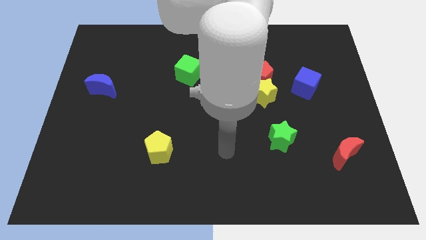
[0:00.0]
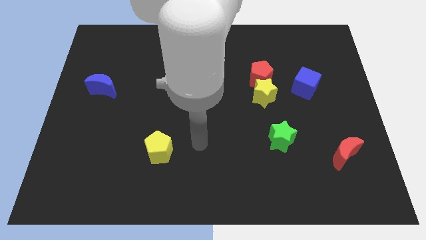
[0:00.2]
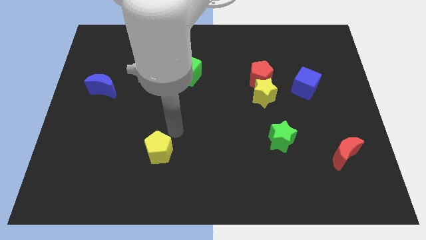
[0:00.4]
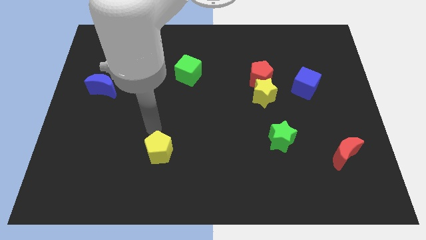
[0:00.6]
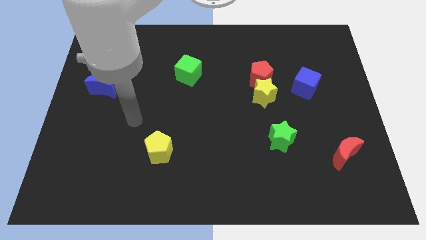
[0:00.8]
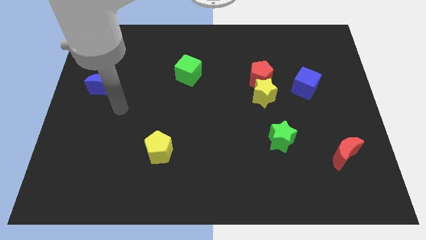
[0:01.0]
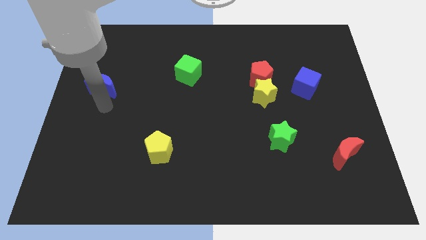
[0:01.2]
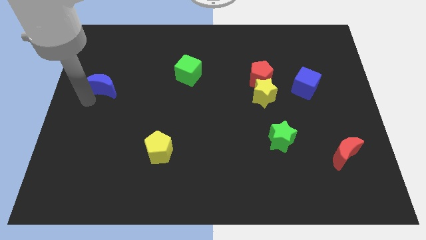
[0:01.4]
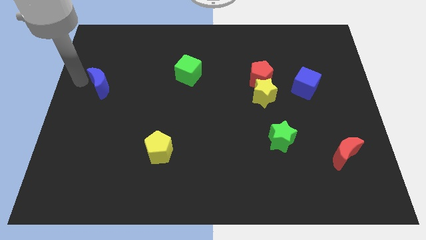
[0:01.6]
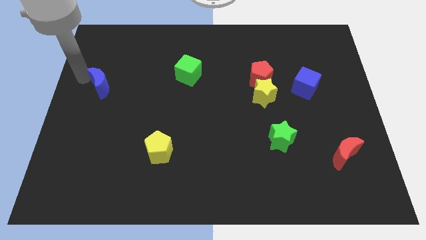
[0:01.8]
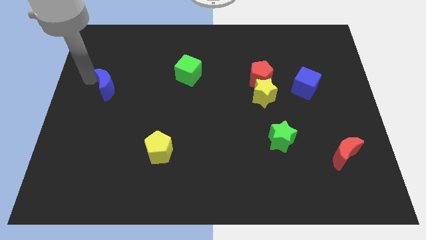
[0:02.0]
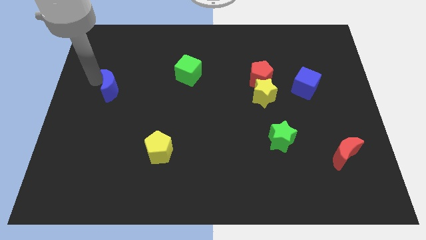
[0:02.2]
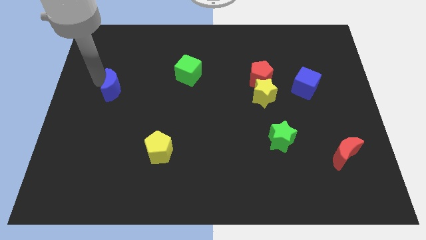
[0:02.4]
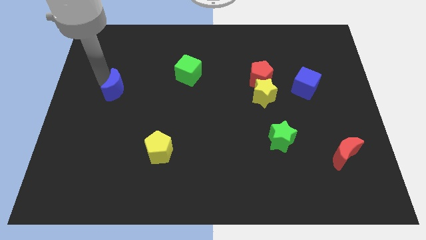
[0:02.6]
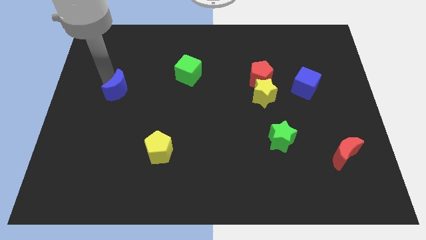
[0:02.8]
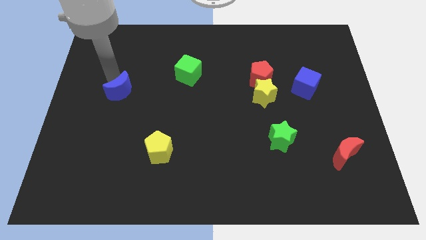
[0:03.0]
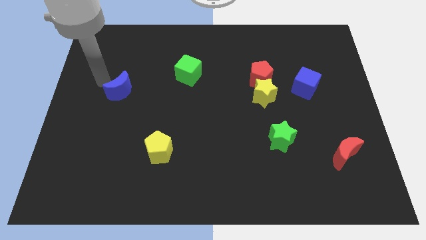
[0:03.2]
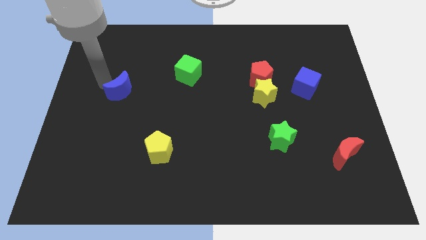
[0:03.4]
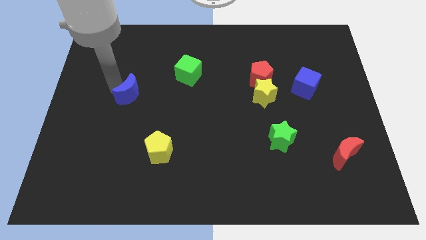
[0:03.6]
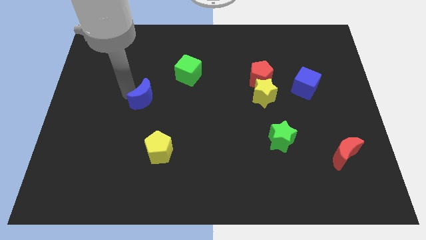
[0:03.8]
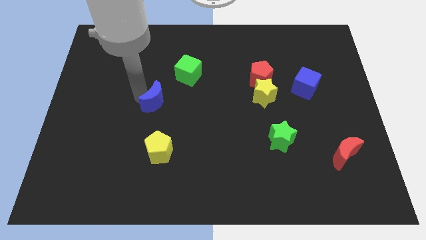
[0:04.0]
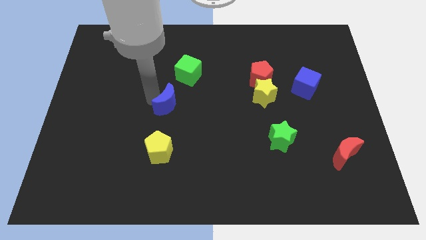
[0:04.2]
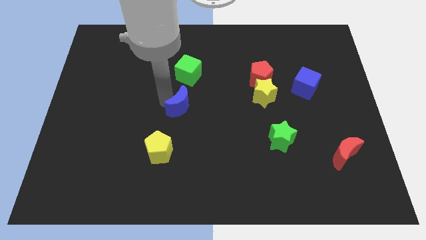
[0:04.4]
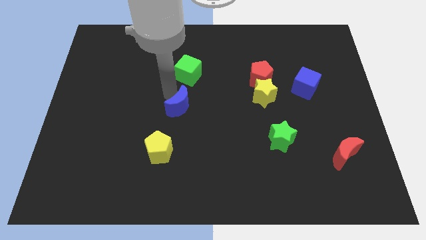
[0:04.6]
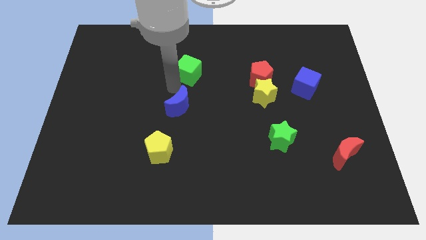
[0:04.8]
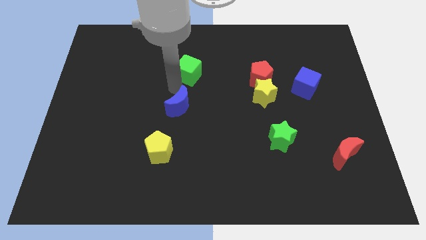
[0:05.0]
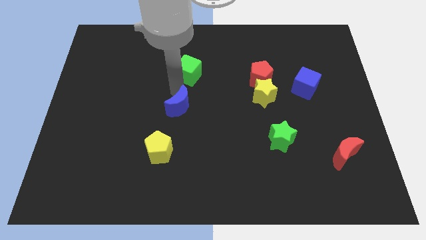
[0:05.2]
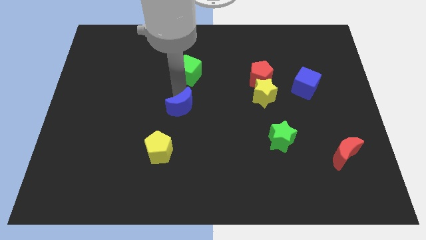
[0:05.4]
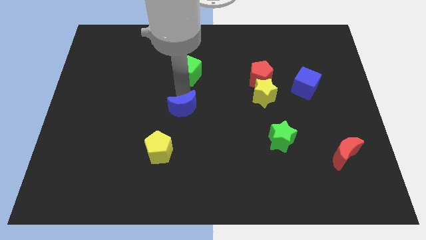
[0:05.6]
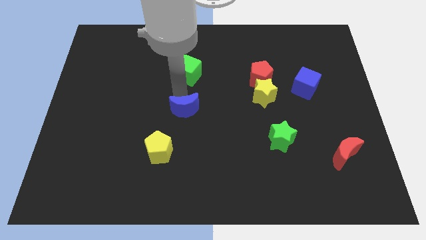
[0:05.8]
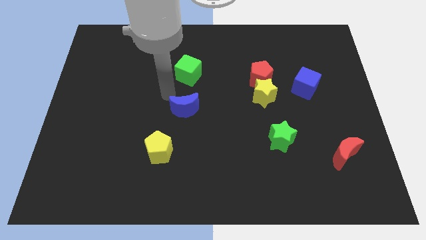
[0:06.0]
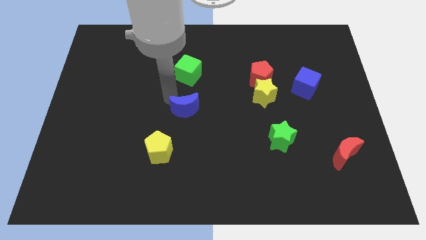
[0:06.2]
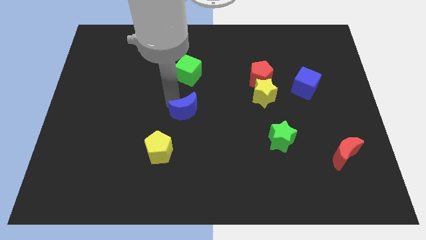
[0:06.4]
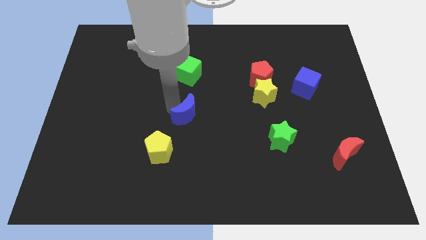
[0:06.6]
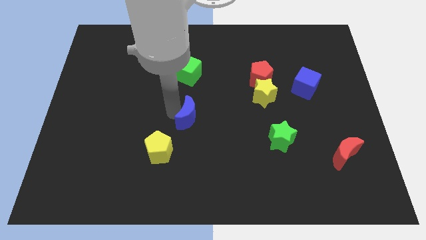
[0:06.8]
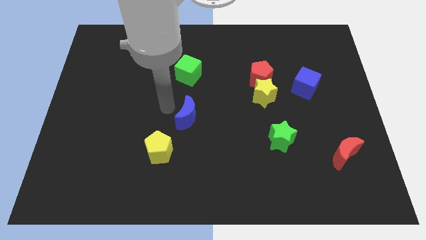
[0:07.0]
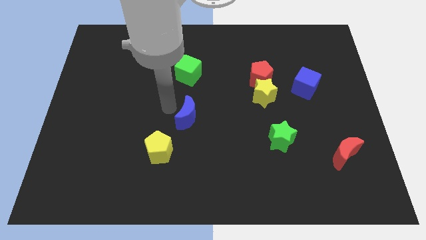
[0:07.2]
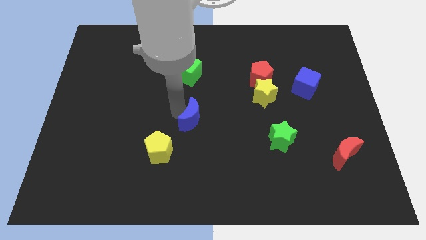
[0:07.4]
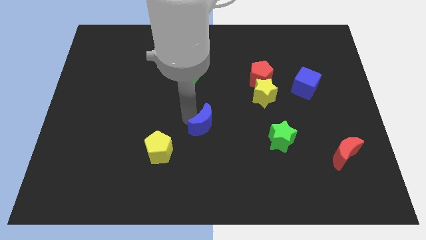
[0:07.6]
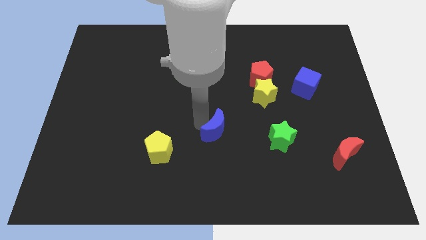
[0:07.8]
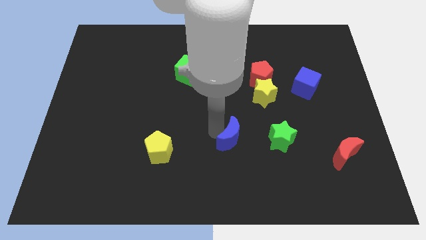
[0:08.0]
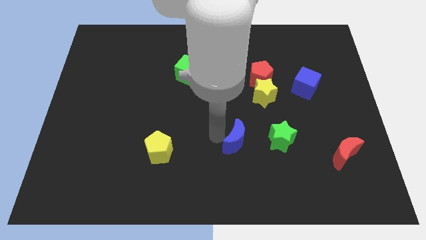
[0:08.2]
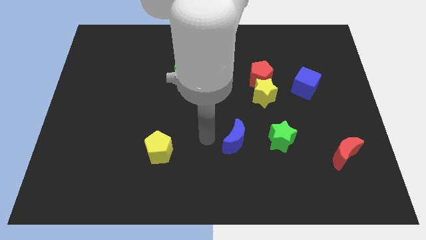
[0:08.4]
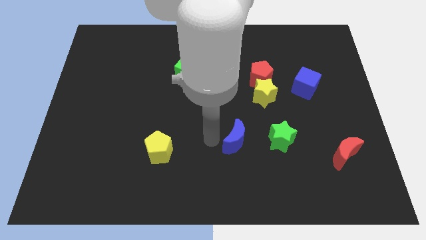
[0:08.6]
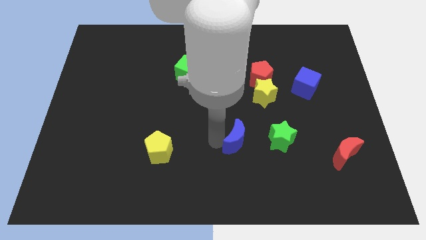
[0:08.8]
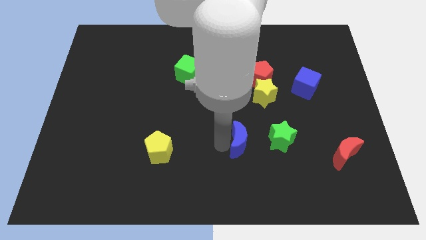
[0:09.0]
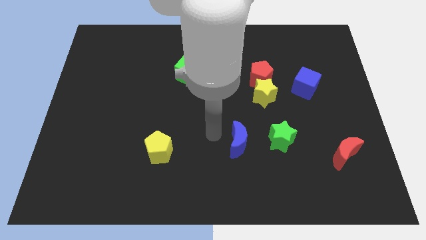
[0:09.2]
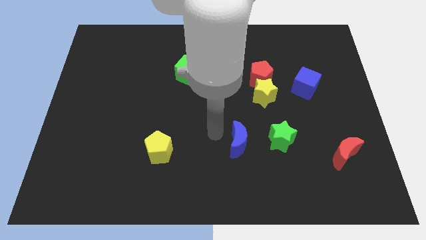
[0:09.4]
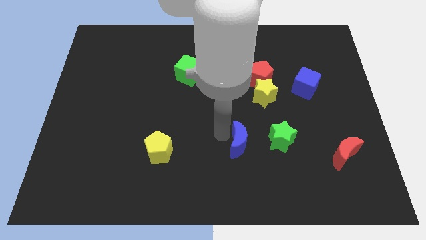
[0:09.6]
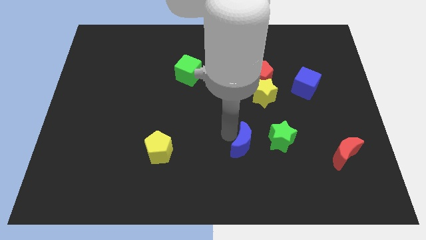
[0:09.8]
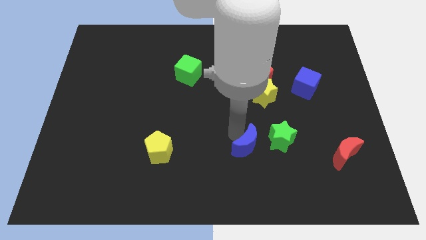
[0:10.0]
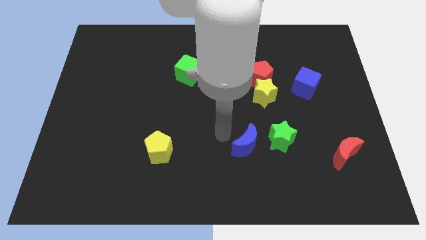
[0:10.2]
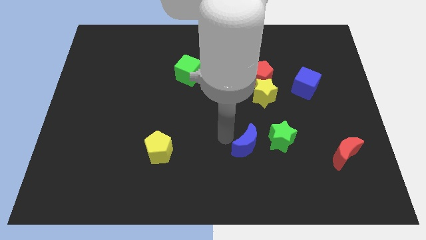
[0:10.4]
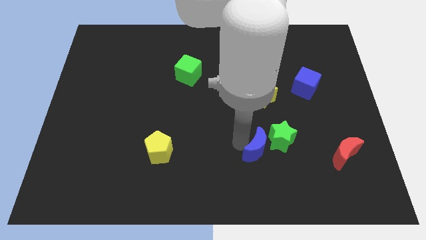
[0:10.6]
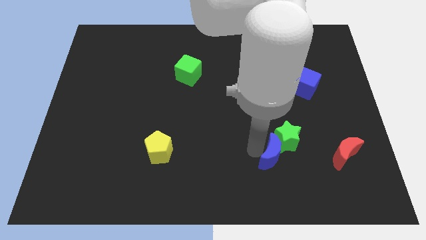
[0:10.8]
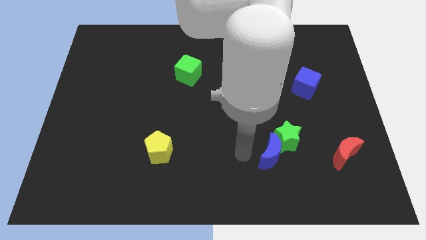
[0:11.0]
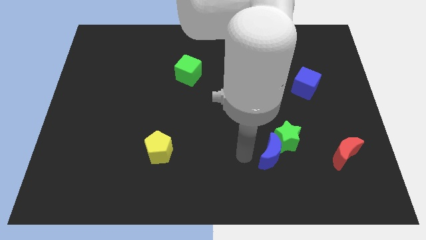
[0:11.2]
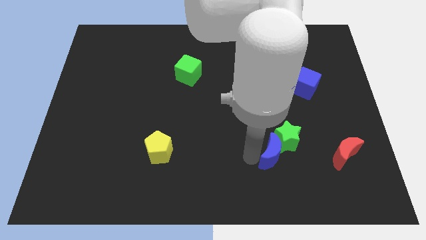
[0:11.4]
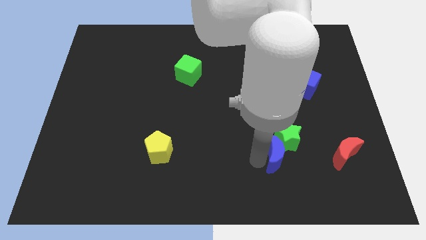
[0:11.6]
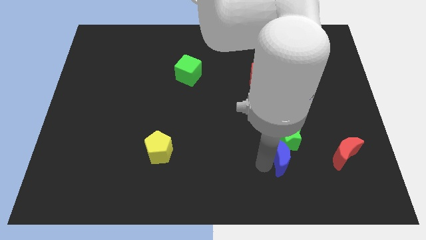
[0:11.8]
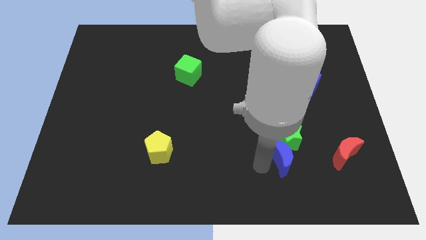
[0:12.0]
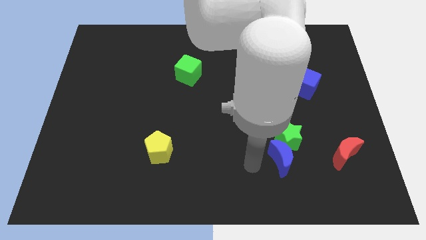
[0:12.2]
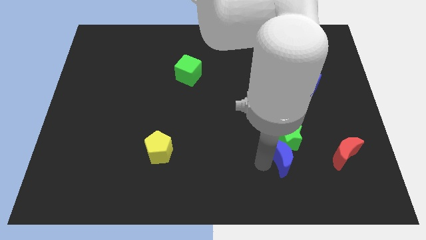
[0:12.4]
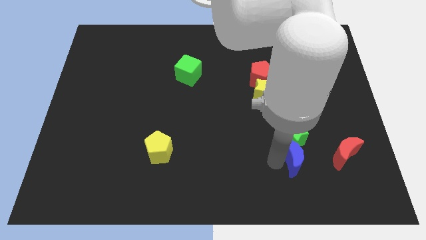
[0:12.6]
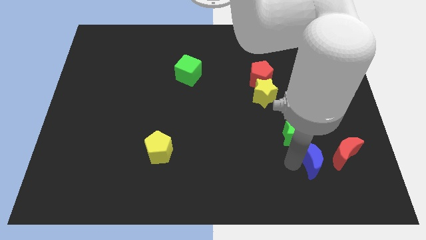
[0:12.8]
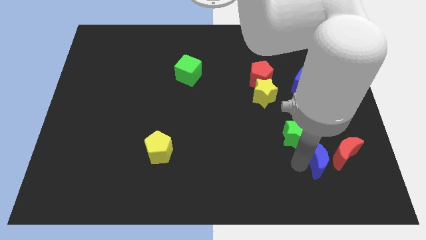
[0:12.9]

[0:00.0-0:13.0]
put the blue moon next to the red moon
